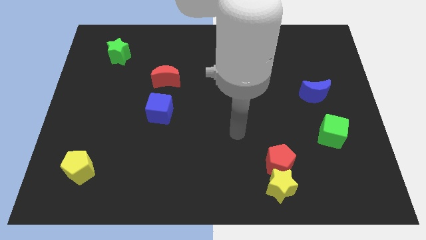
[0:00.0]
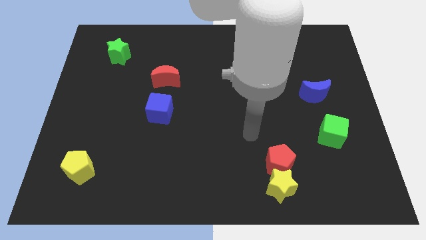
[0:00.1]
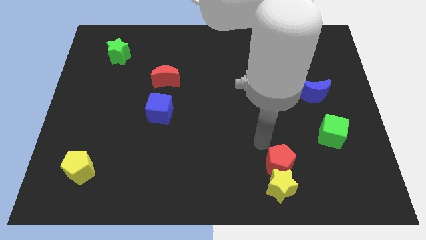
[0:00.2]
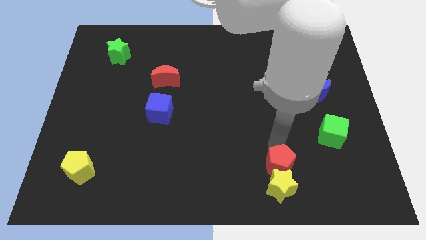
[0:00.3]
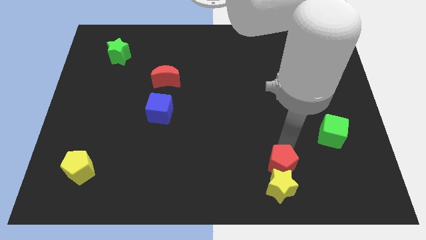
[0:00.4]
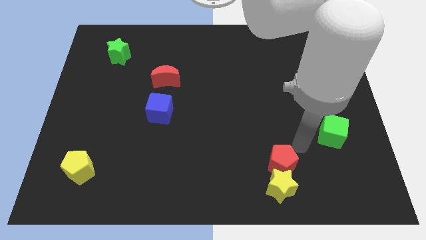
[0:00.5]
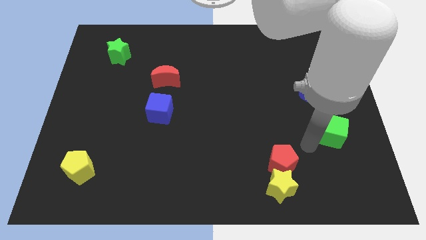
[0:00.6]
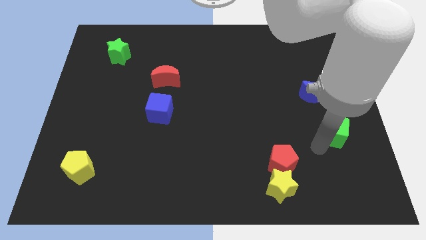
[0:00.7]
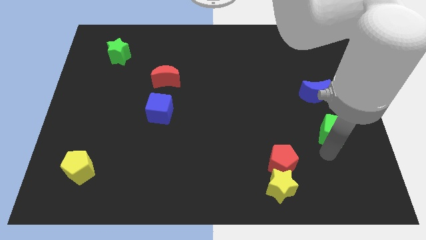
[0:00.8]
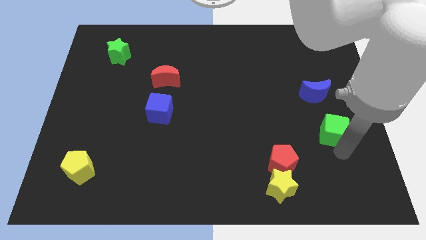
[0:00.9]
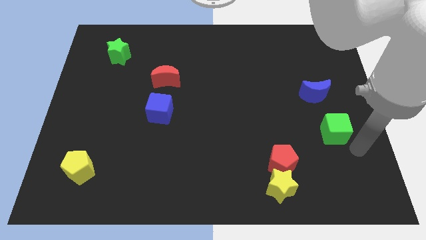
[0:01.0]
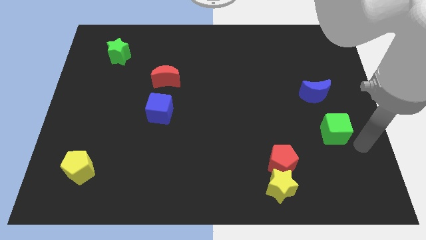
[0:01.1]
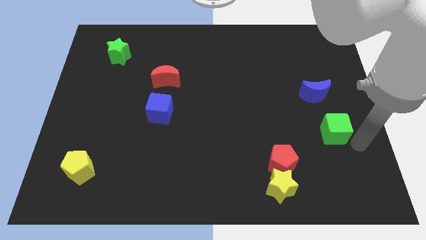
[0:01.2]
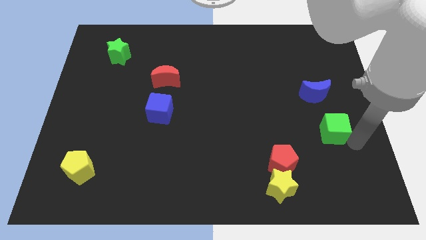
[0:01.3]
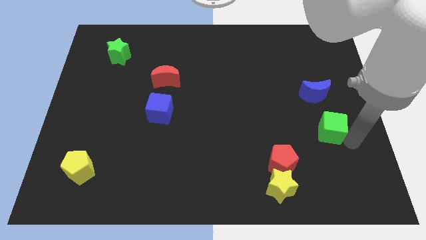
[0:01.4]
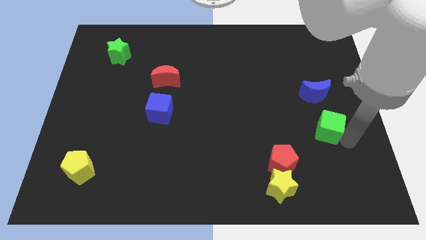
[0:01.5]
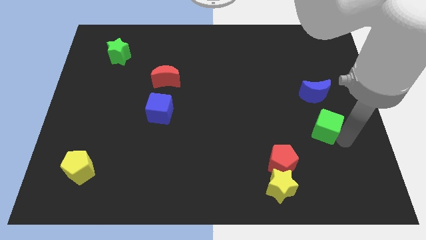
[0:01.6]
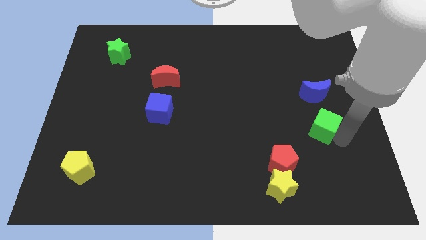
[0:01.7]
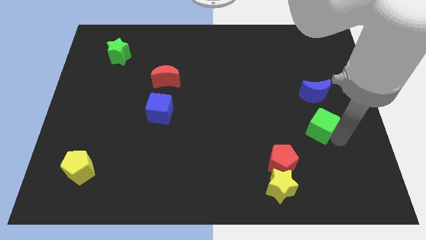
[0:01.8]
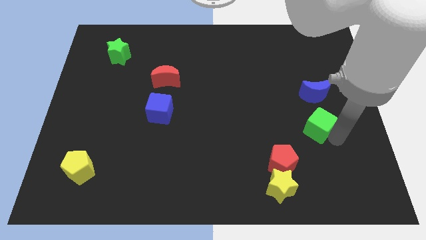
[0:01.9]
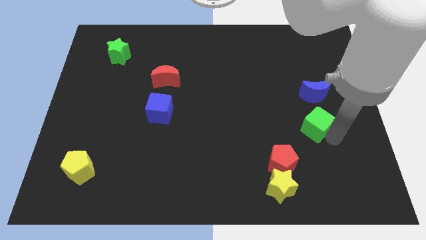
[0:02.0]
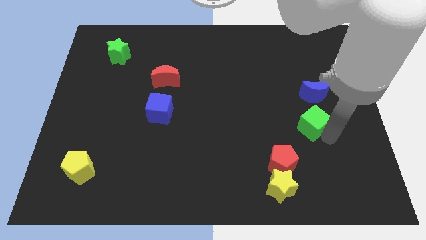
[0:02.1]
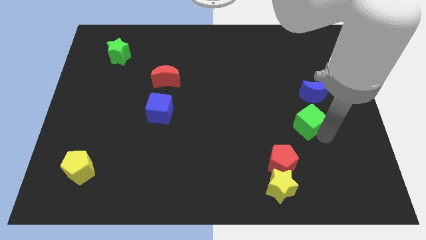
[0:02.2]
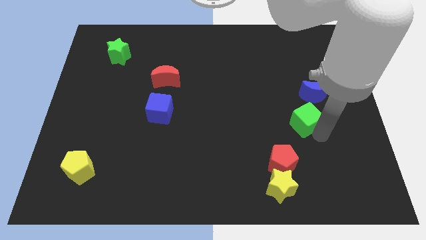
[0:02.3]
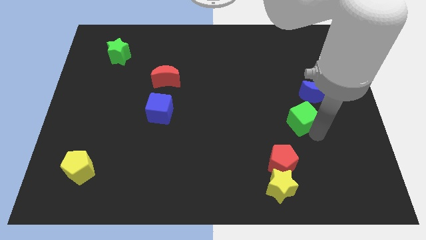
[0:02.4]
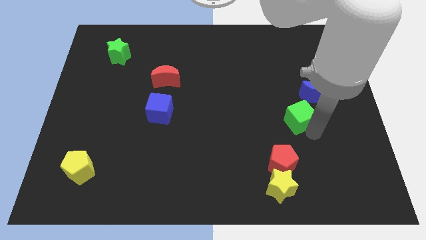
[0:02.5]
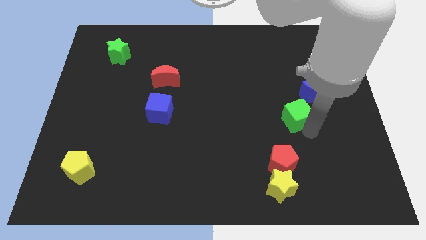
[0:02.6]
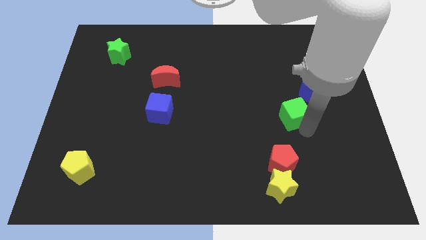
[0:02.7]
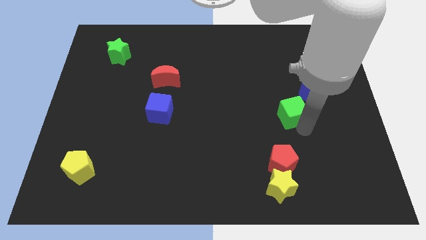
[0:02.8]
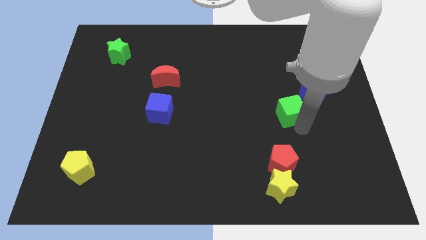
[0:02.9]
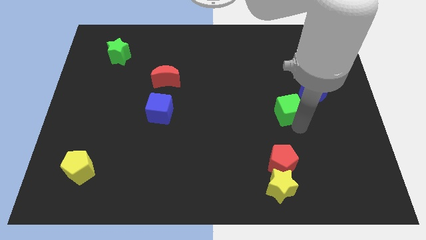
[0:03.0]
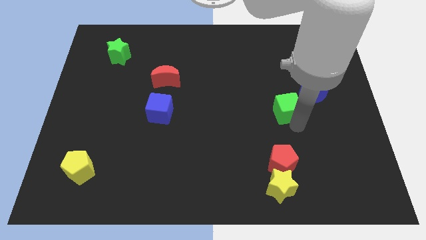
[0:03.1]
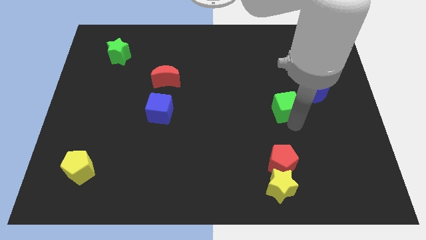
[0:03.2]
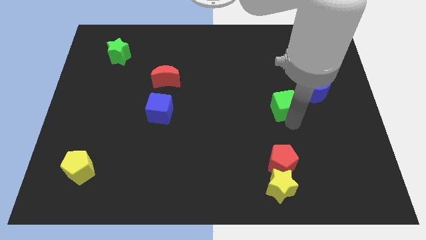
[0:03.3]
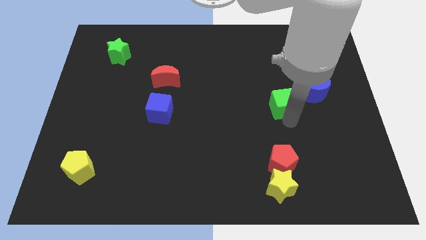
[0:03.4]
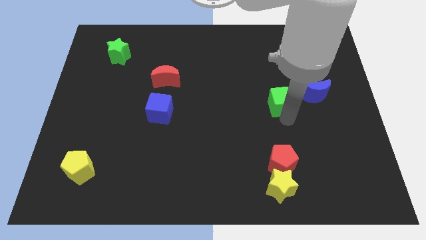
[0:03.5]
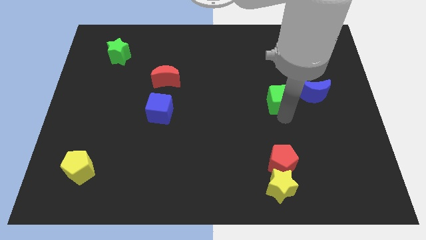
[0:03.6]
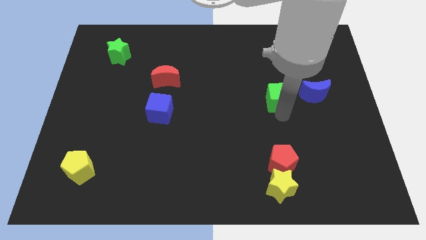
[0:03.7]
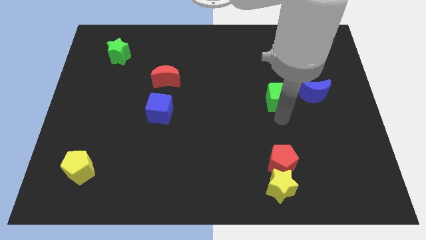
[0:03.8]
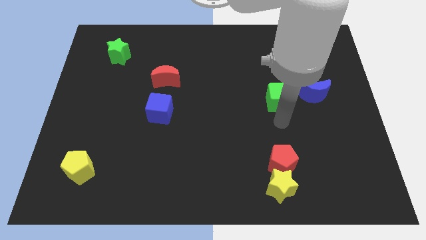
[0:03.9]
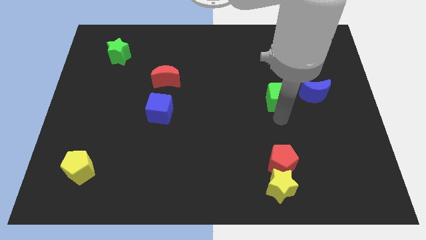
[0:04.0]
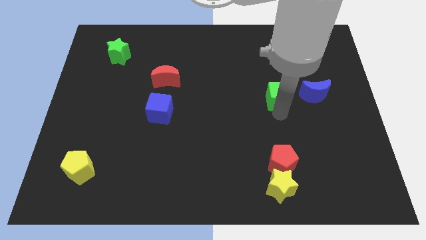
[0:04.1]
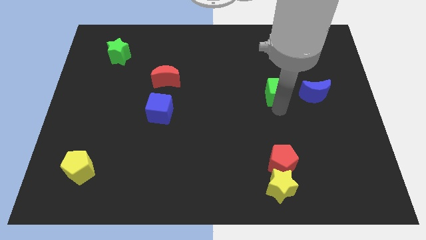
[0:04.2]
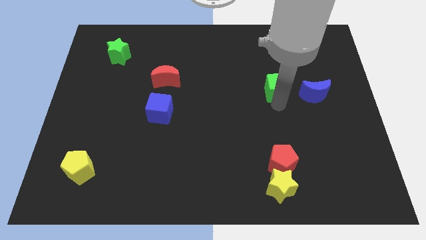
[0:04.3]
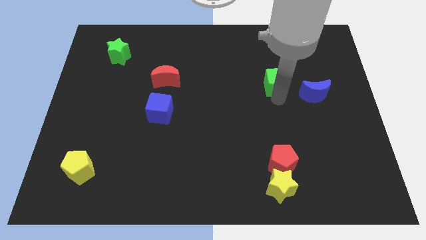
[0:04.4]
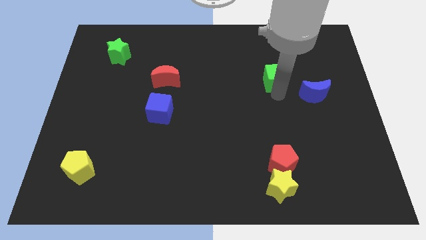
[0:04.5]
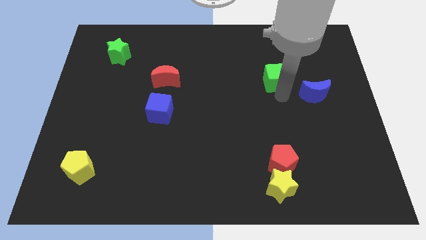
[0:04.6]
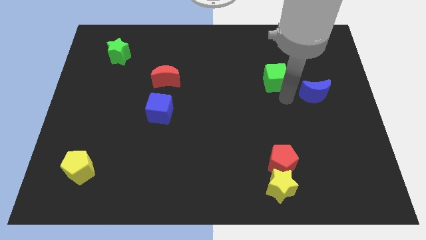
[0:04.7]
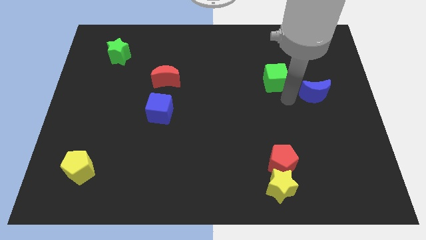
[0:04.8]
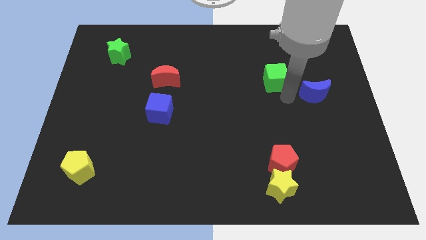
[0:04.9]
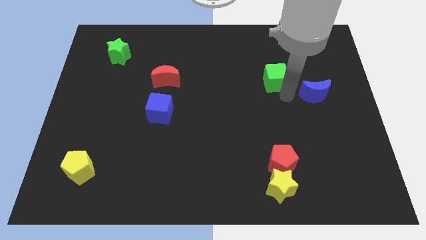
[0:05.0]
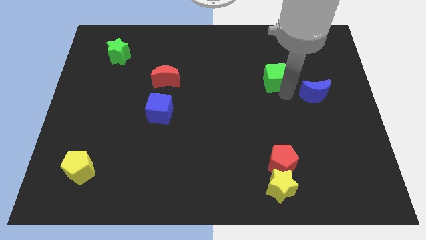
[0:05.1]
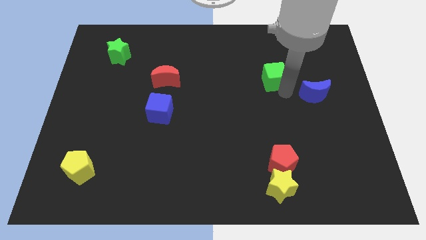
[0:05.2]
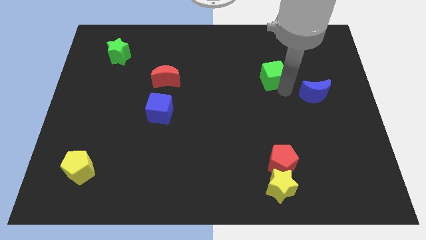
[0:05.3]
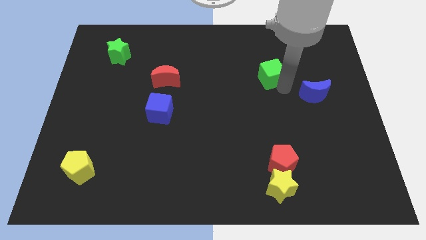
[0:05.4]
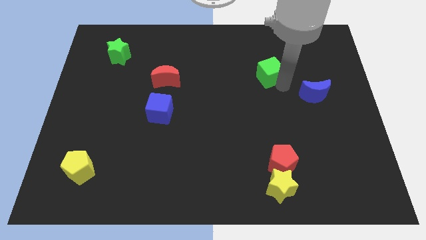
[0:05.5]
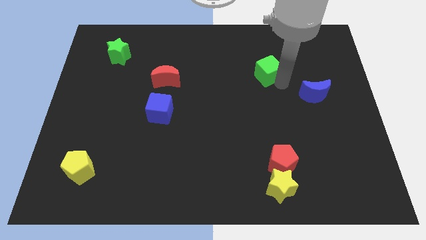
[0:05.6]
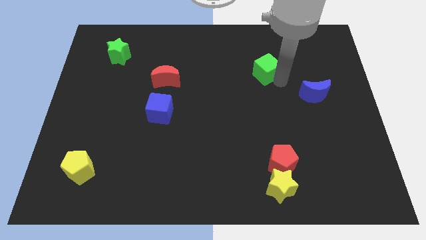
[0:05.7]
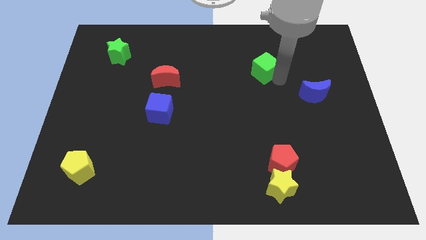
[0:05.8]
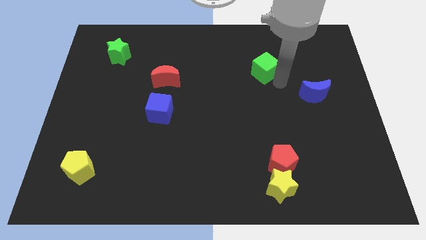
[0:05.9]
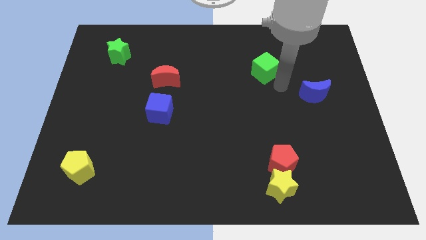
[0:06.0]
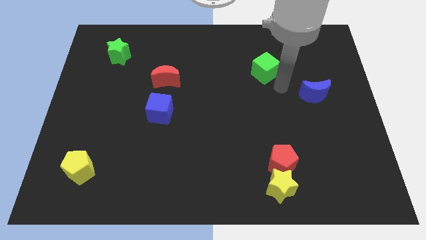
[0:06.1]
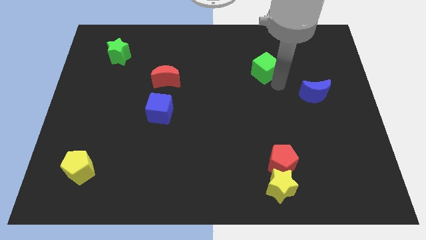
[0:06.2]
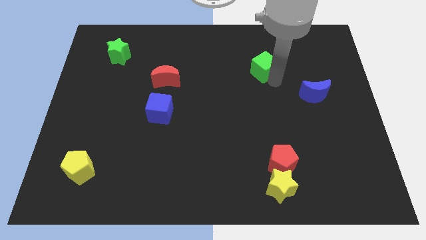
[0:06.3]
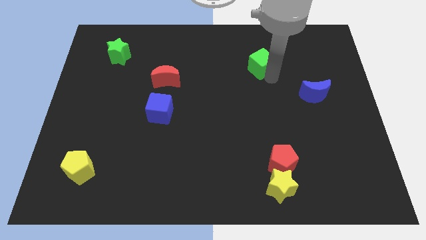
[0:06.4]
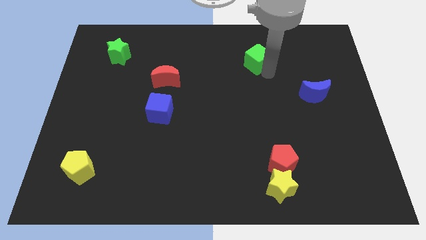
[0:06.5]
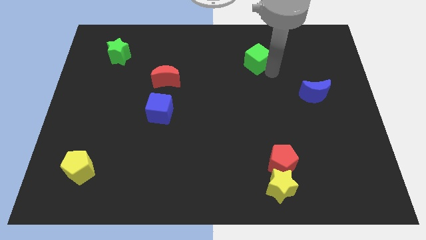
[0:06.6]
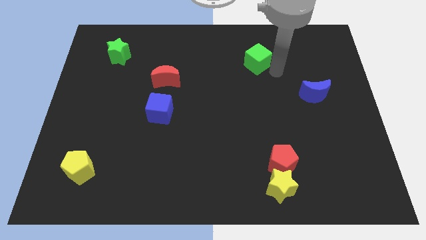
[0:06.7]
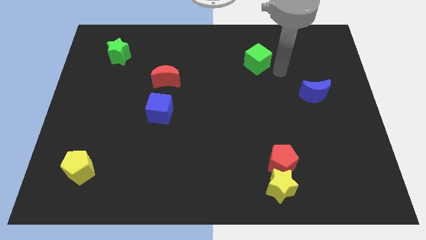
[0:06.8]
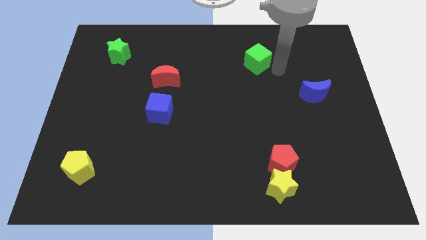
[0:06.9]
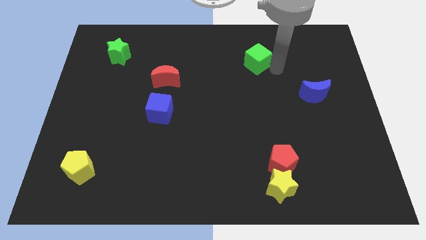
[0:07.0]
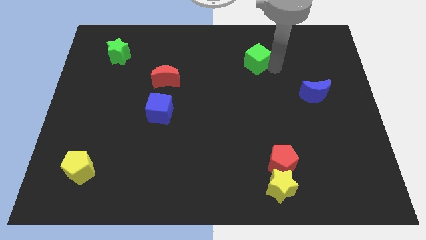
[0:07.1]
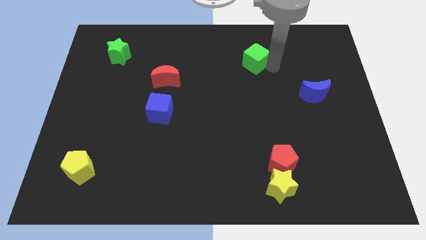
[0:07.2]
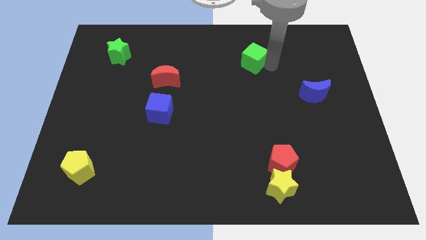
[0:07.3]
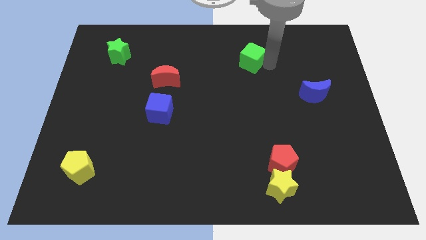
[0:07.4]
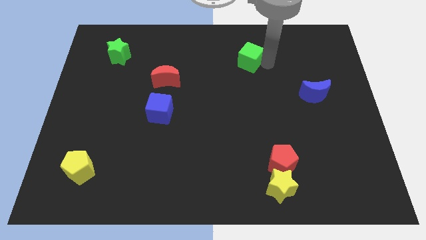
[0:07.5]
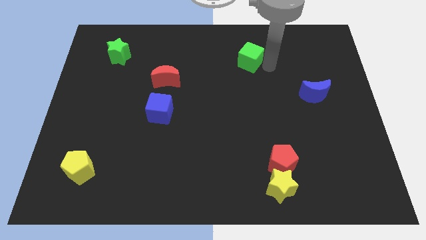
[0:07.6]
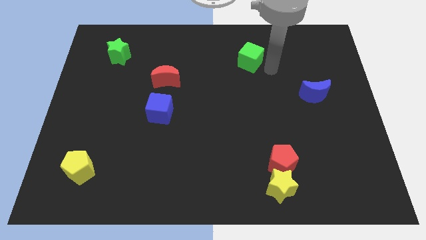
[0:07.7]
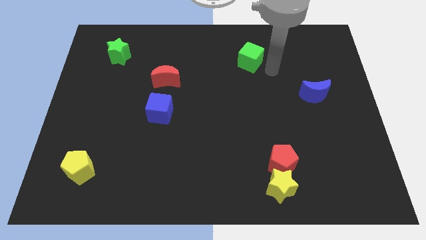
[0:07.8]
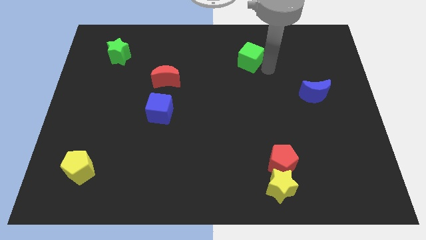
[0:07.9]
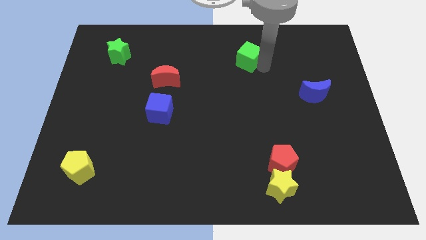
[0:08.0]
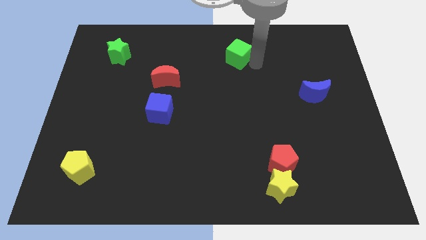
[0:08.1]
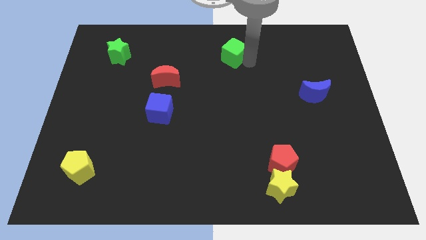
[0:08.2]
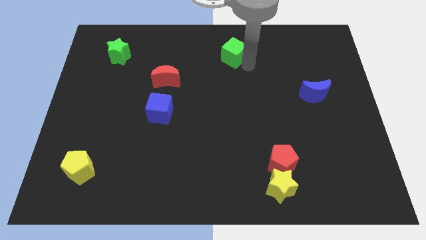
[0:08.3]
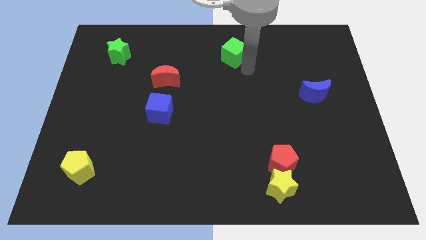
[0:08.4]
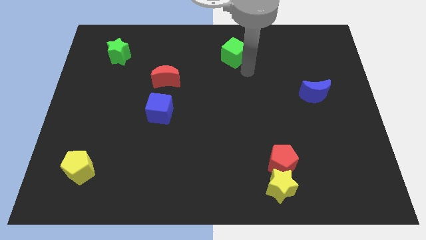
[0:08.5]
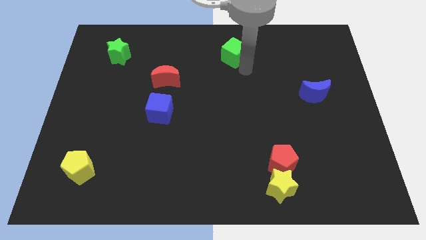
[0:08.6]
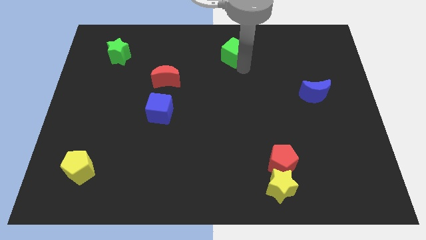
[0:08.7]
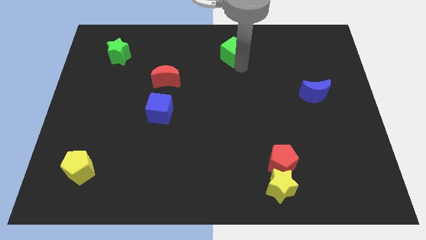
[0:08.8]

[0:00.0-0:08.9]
move the green cube to the top
